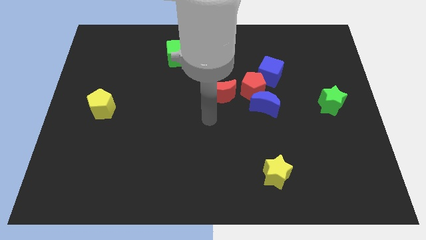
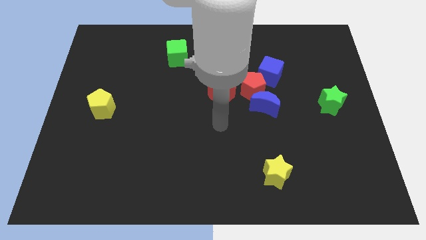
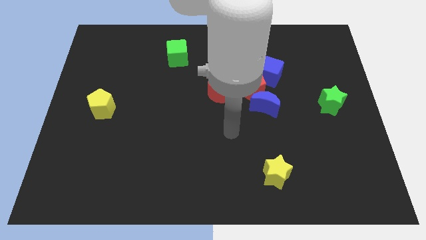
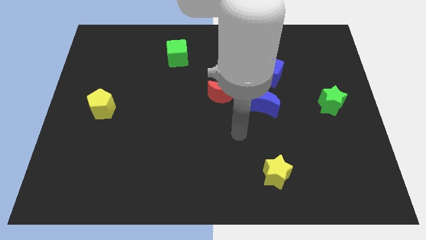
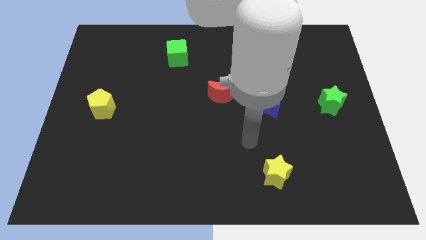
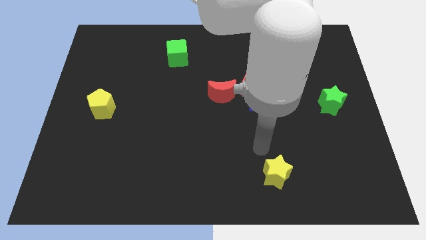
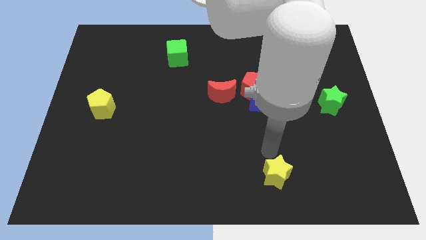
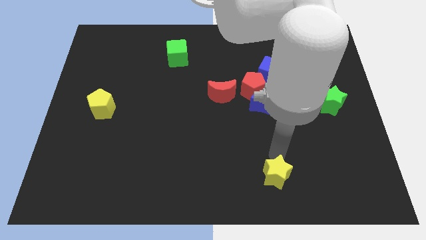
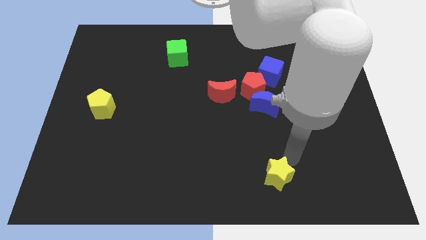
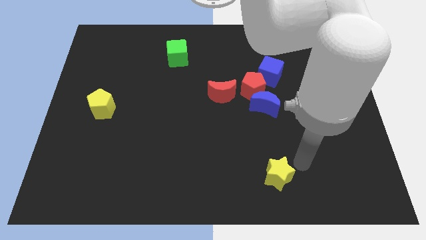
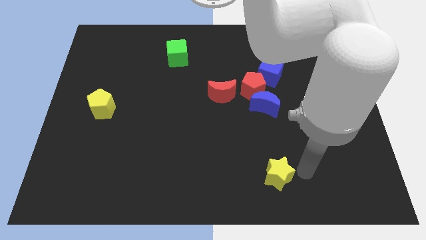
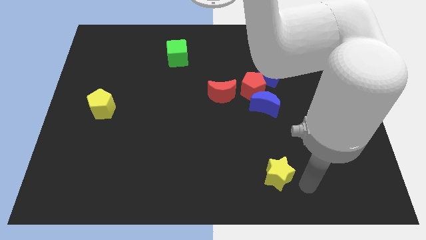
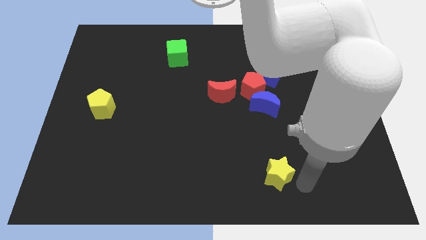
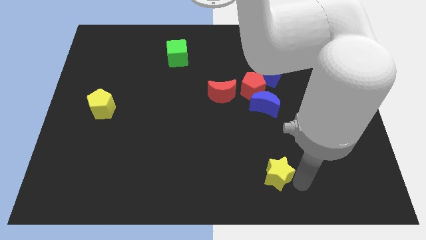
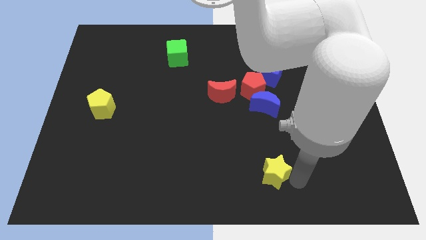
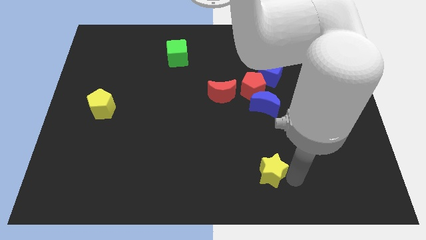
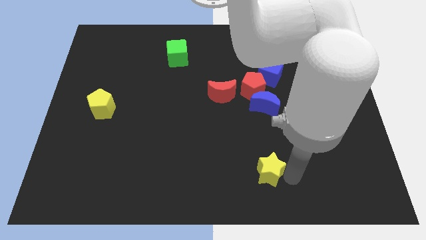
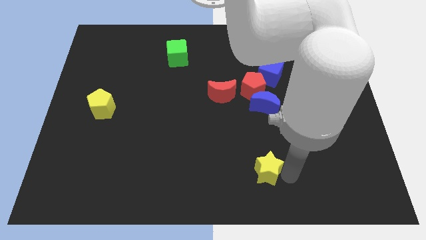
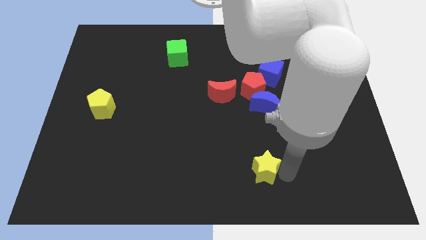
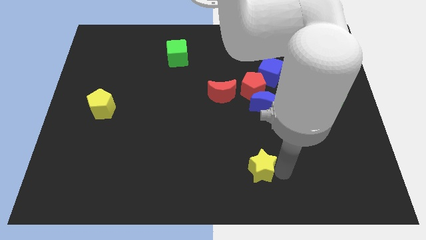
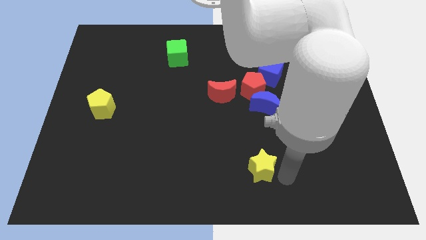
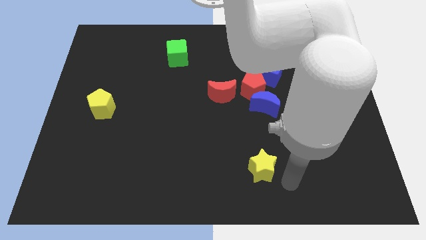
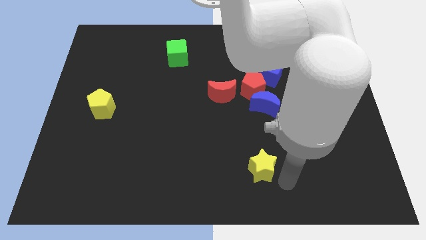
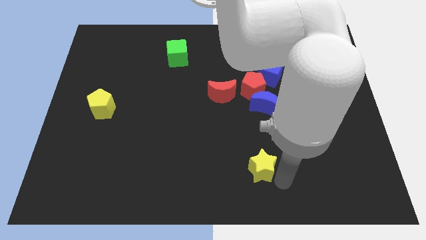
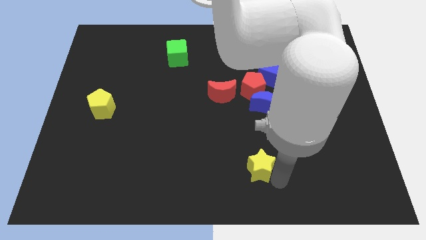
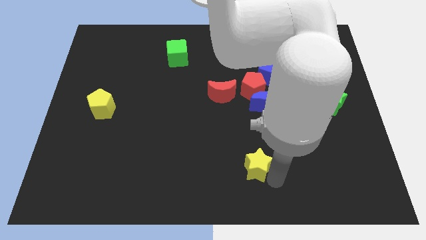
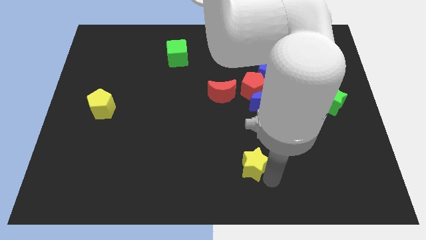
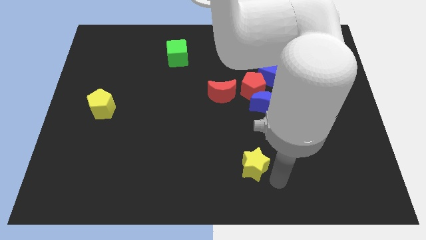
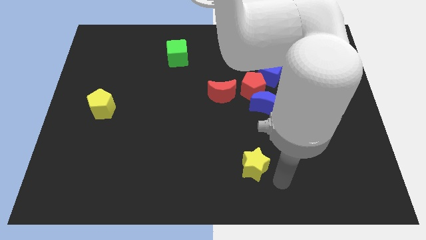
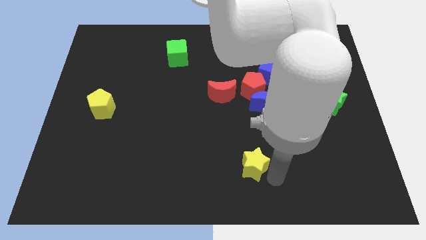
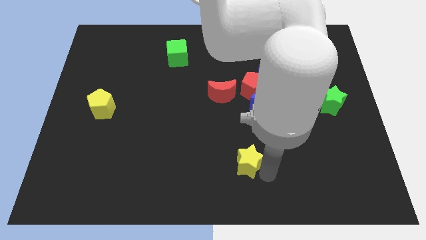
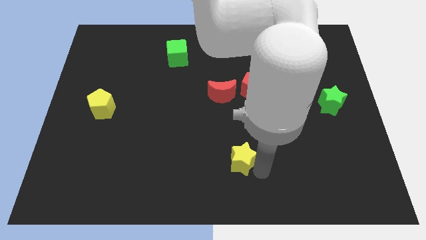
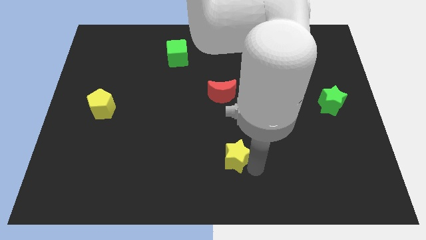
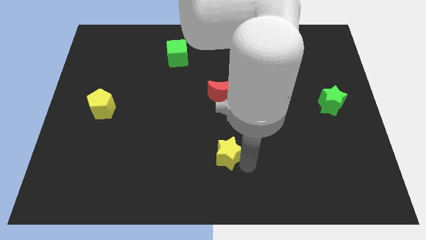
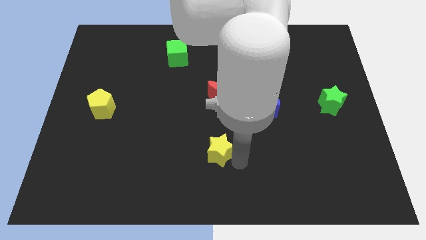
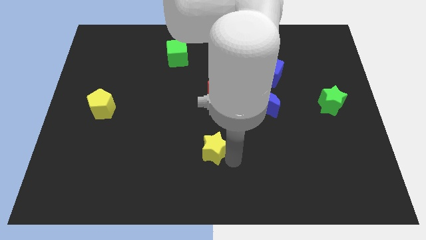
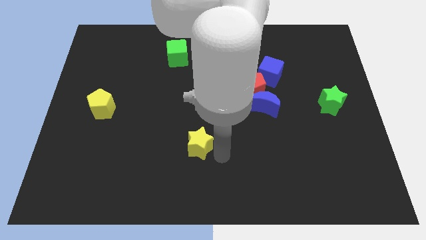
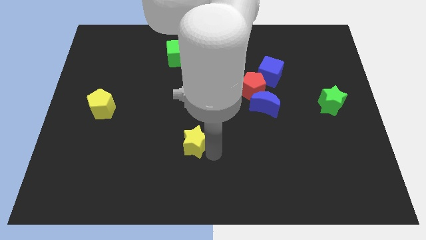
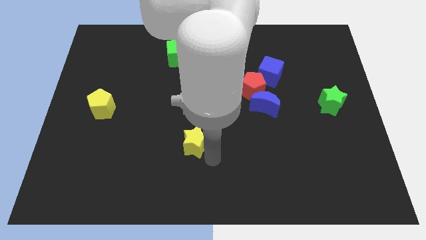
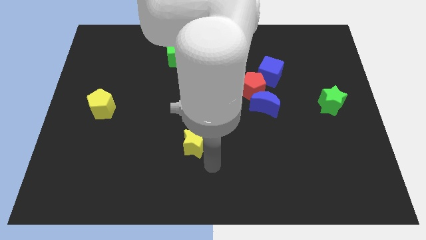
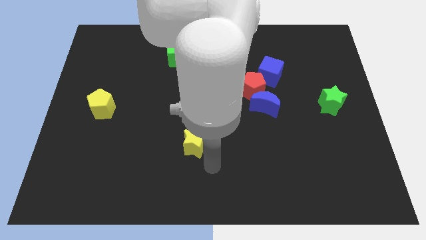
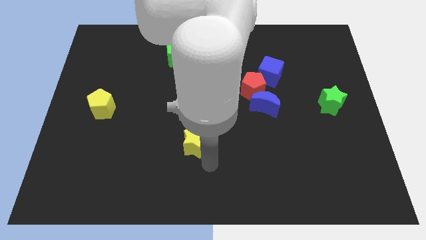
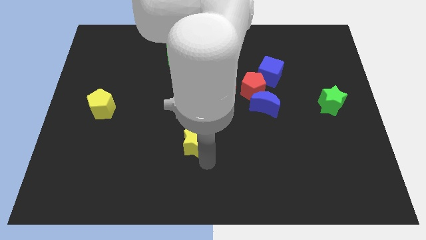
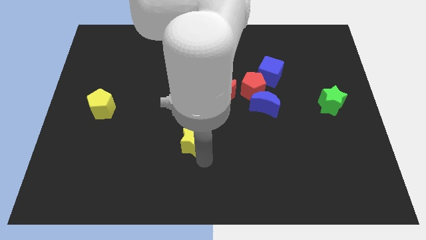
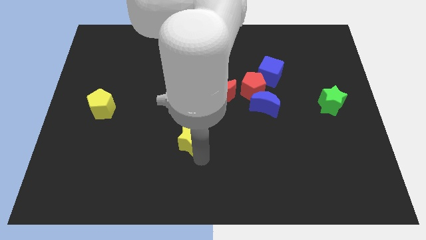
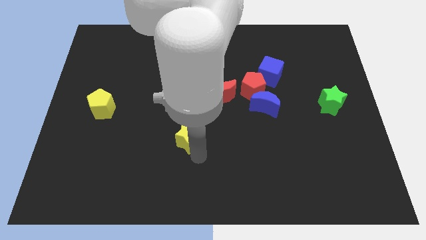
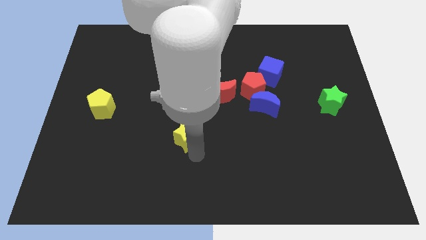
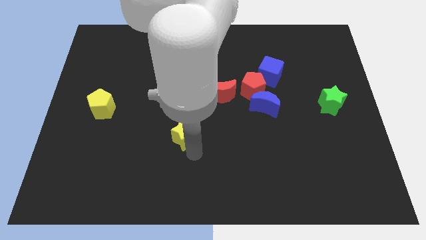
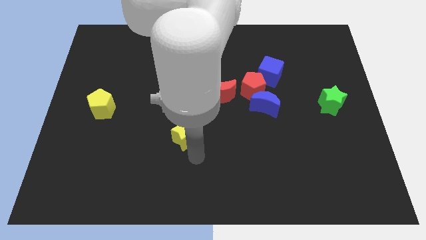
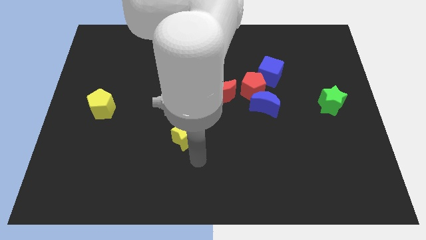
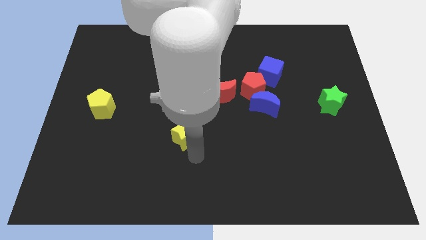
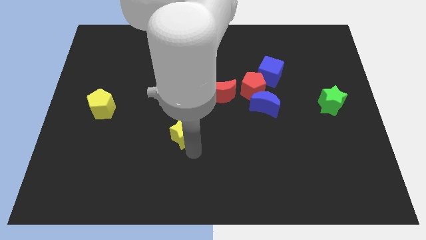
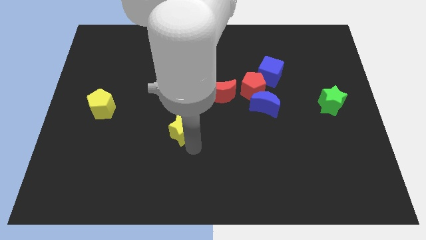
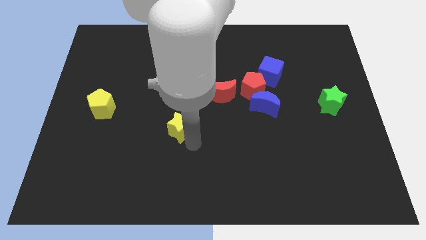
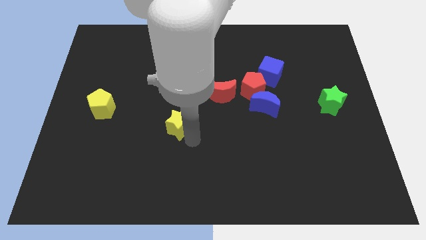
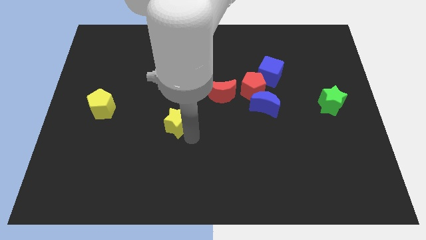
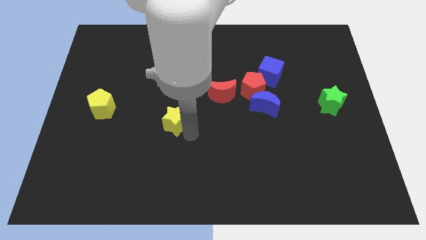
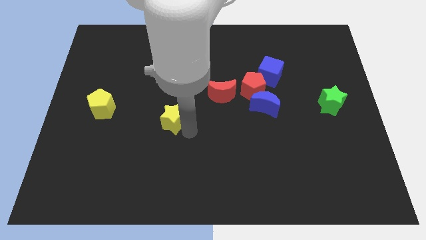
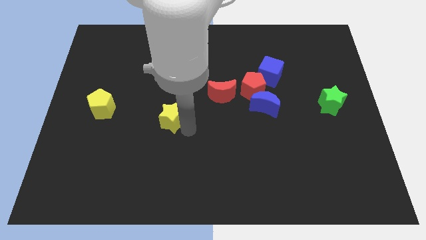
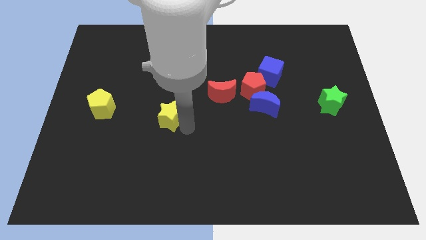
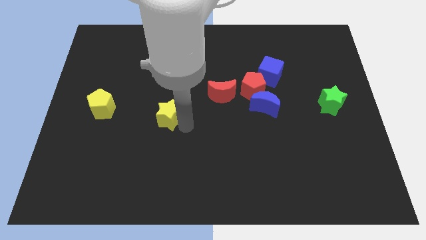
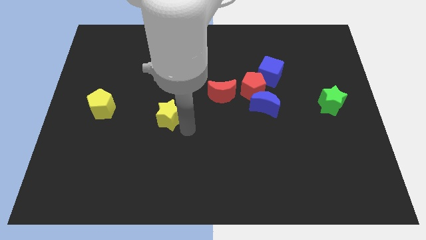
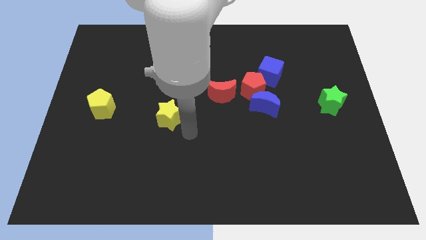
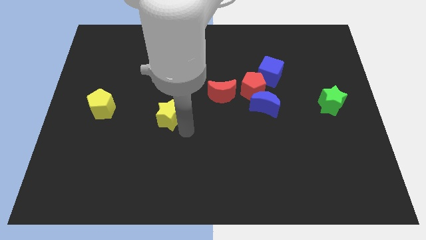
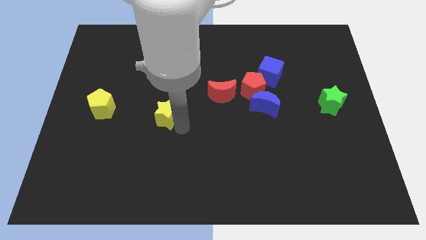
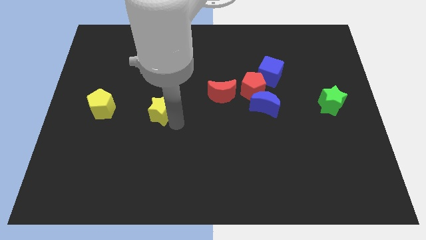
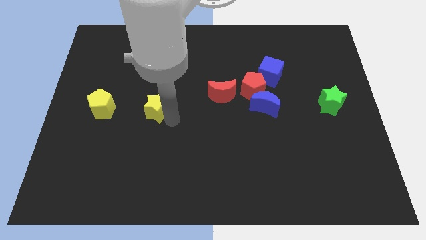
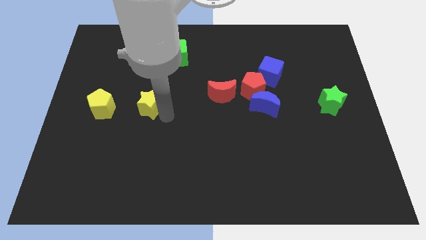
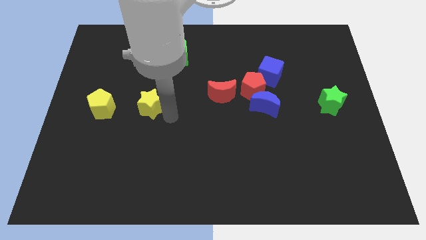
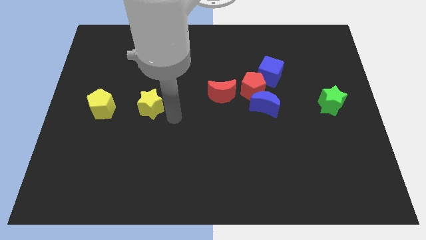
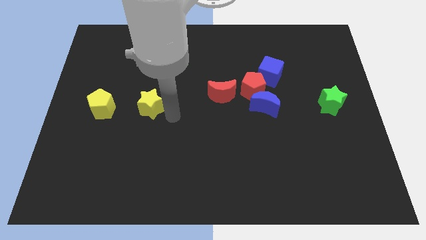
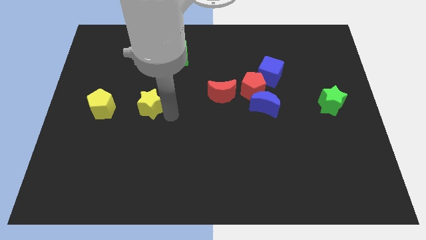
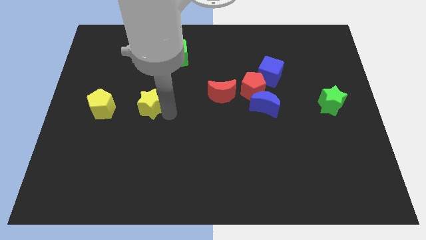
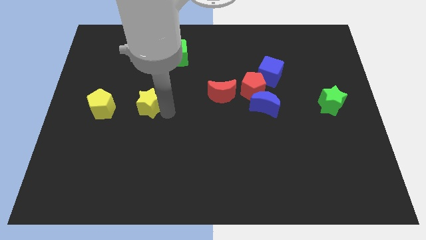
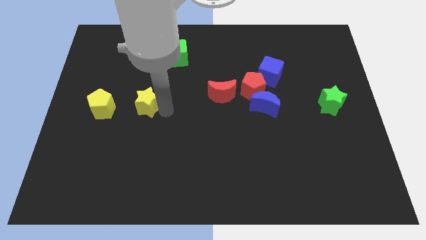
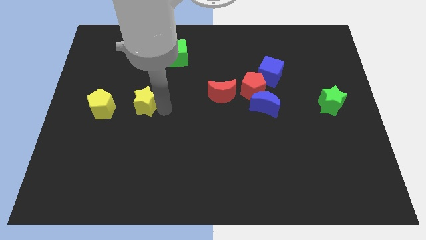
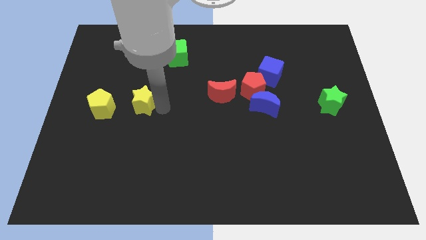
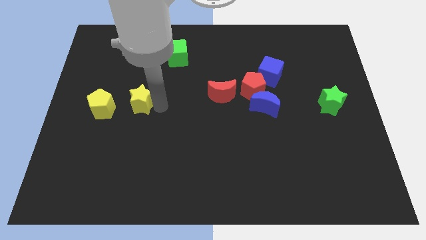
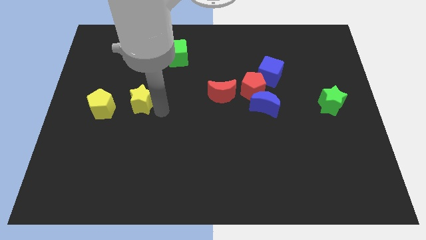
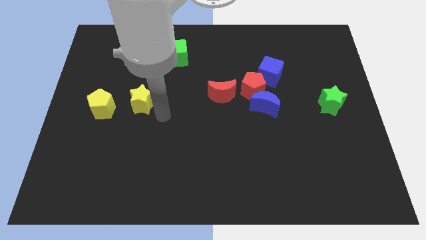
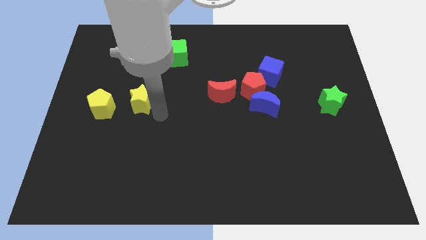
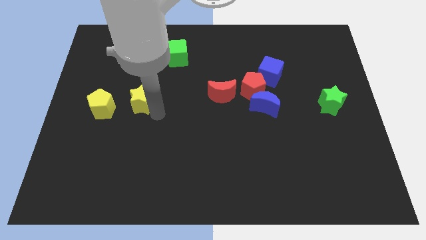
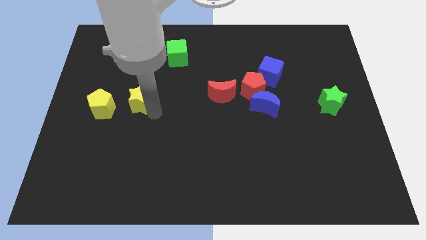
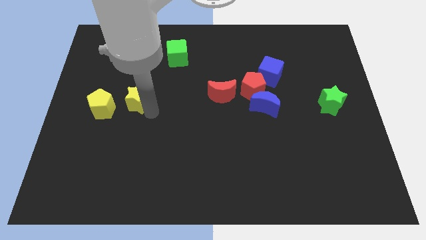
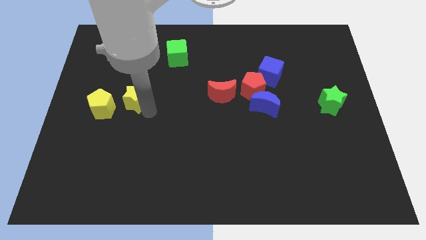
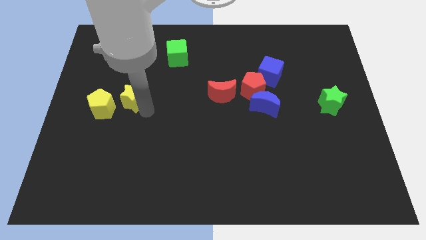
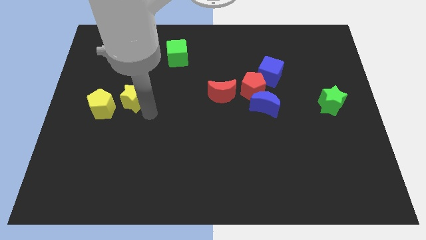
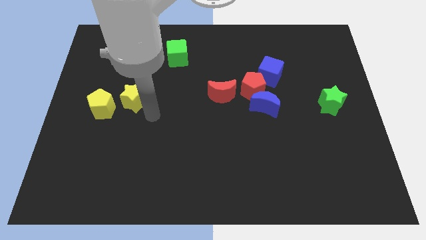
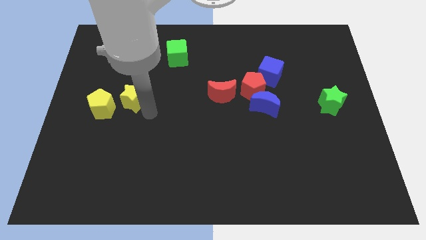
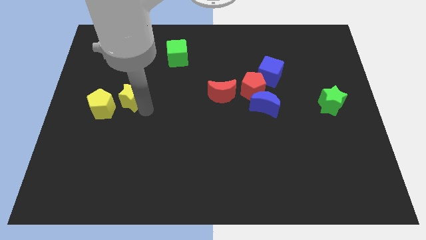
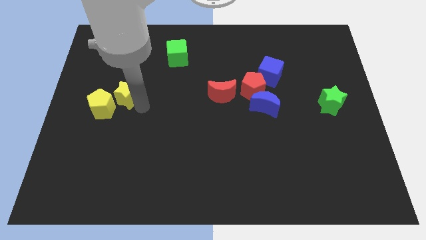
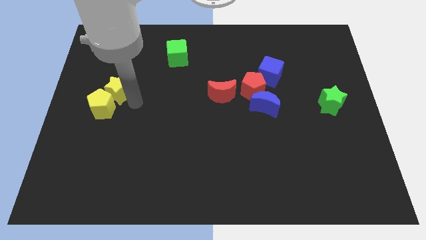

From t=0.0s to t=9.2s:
slide the yellow star to the top side of the yellow pentagon
